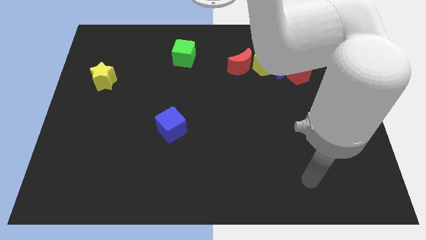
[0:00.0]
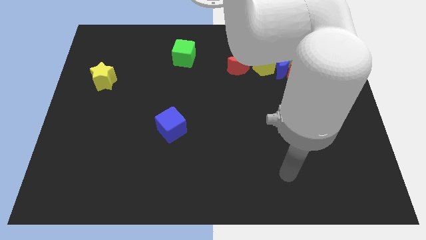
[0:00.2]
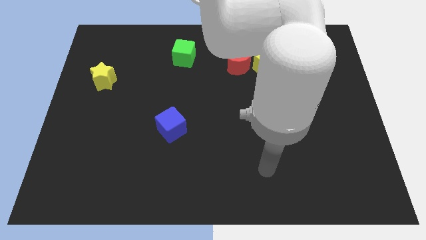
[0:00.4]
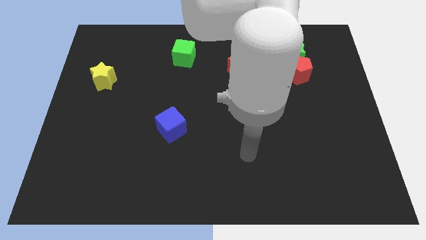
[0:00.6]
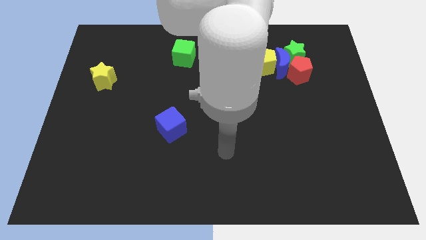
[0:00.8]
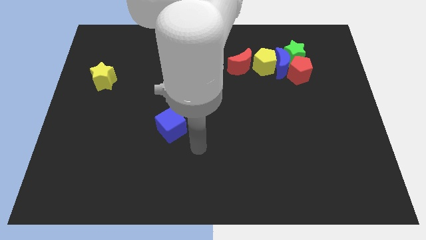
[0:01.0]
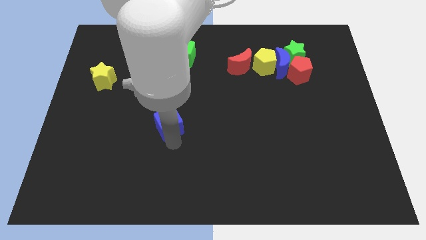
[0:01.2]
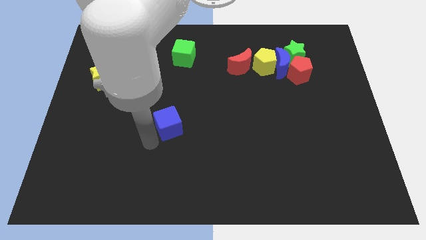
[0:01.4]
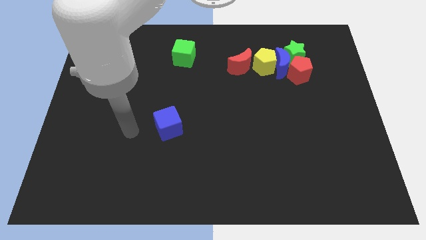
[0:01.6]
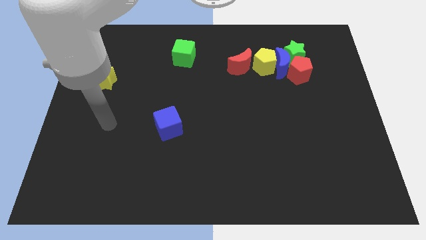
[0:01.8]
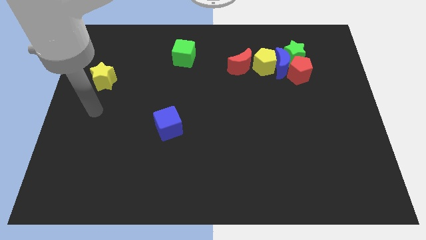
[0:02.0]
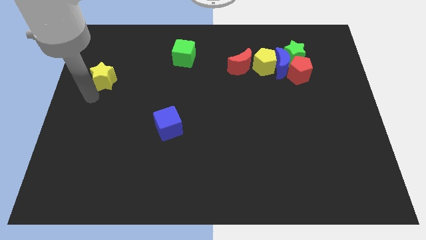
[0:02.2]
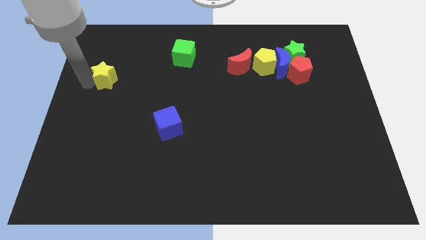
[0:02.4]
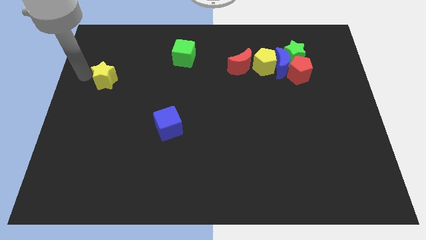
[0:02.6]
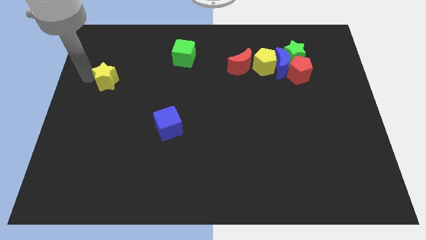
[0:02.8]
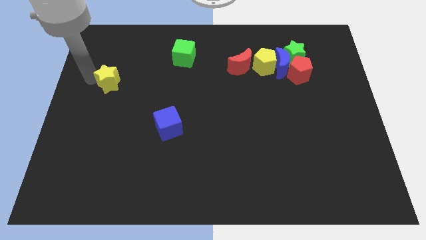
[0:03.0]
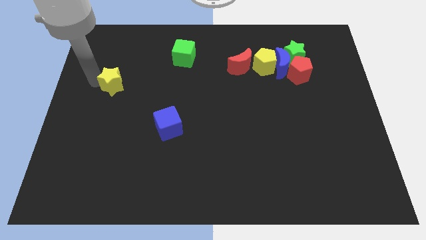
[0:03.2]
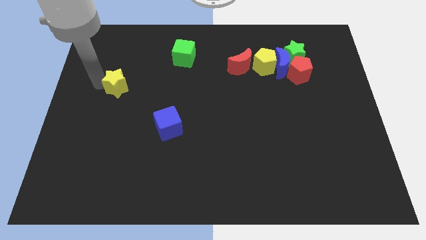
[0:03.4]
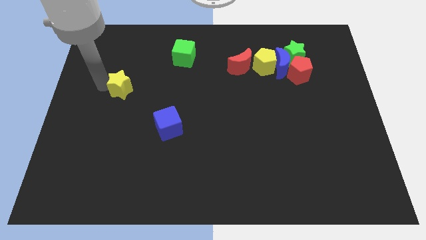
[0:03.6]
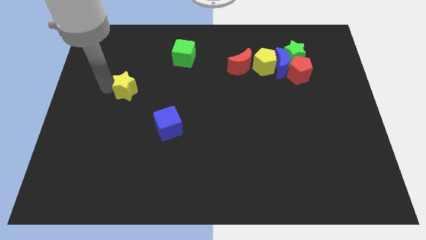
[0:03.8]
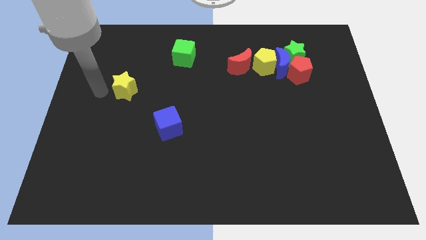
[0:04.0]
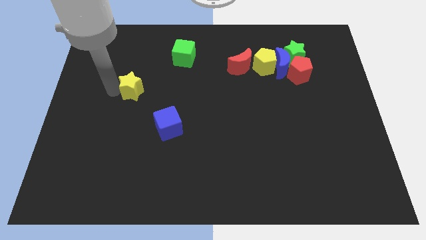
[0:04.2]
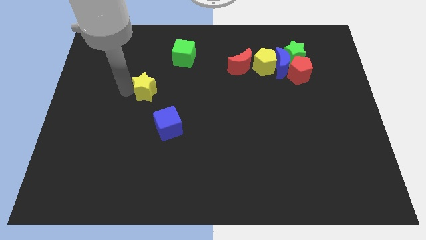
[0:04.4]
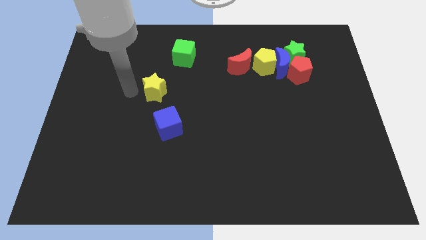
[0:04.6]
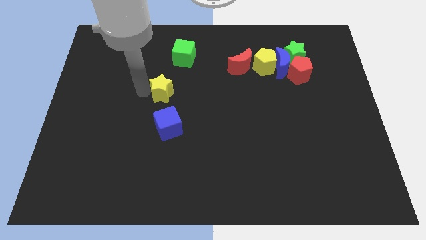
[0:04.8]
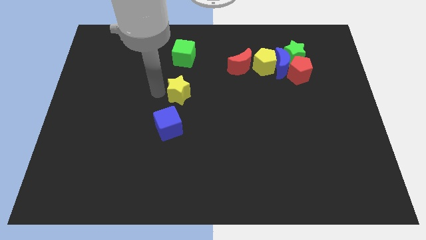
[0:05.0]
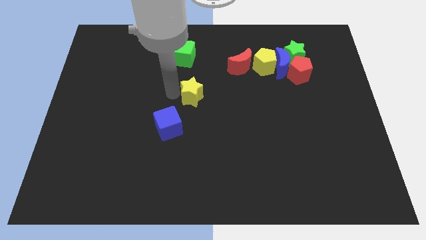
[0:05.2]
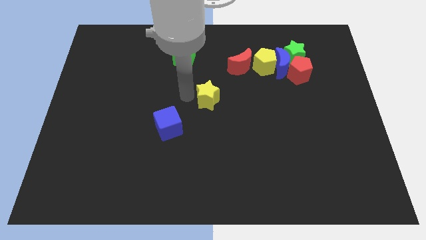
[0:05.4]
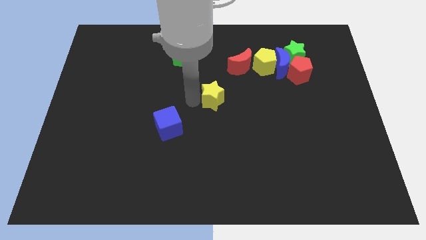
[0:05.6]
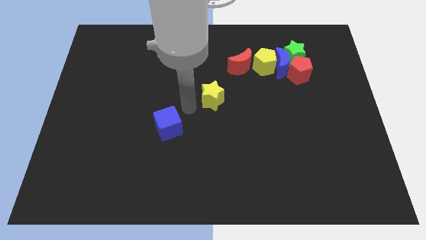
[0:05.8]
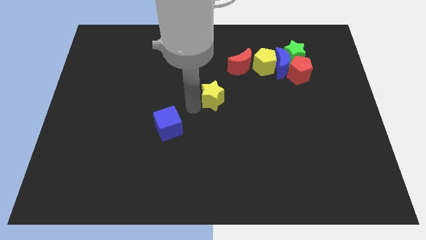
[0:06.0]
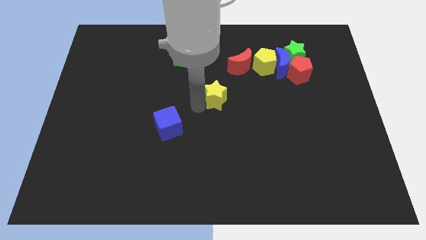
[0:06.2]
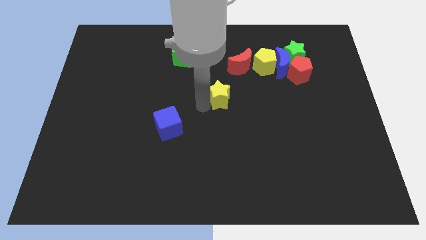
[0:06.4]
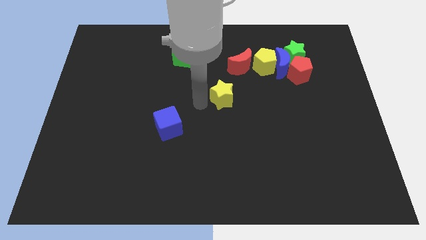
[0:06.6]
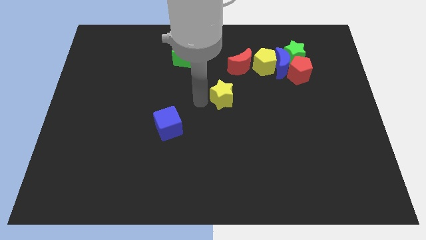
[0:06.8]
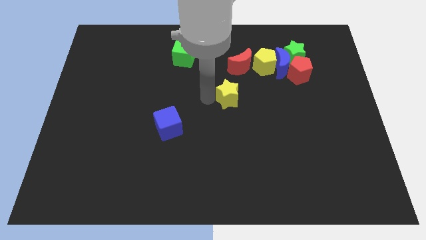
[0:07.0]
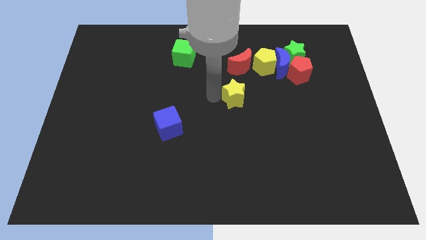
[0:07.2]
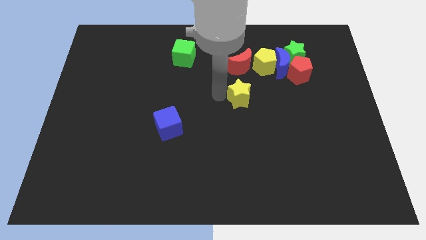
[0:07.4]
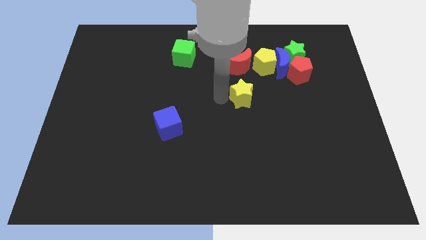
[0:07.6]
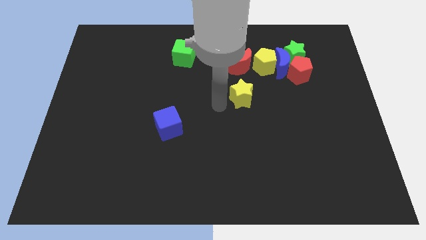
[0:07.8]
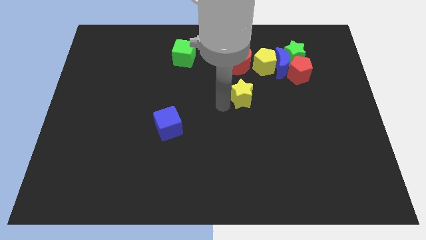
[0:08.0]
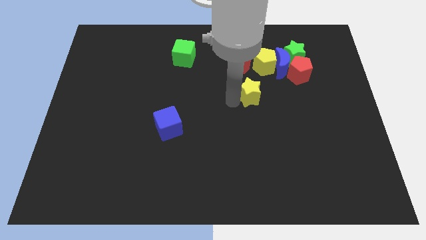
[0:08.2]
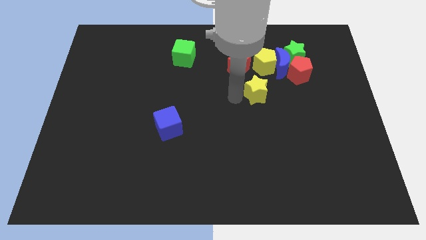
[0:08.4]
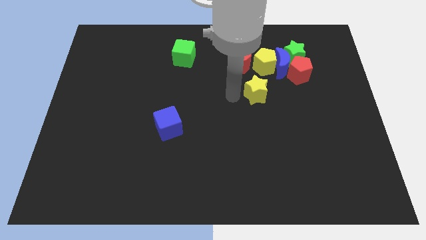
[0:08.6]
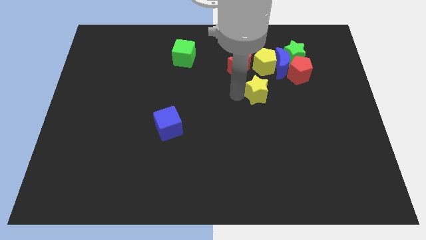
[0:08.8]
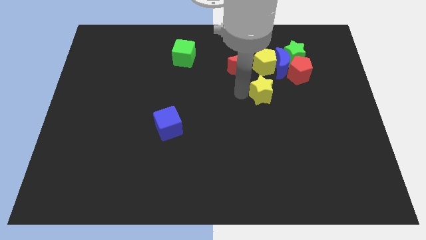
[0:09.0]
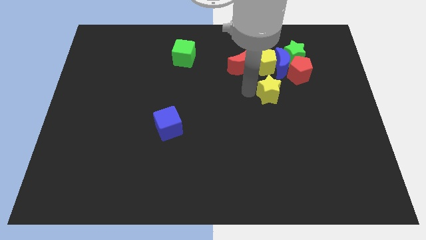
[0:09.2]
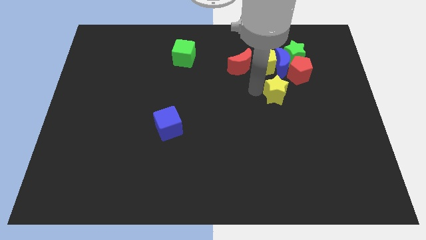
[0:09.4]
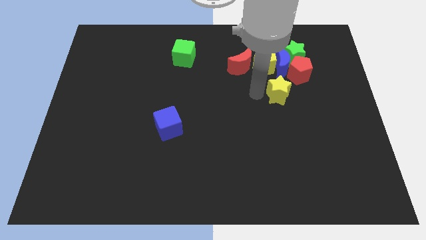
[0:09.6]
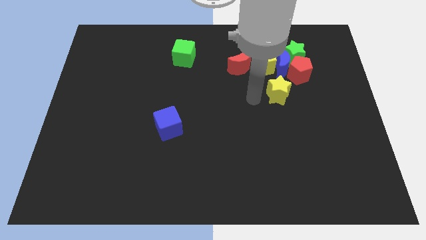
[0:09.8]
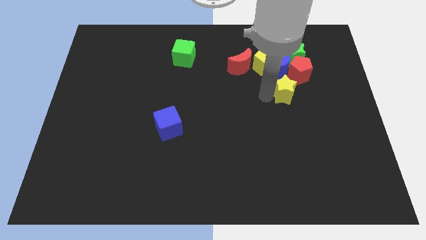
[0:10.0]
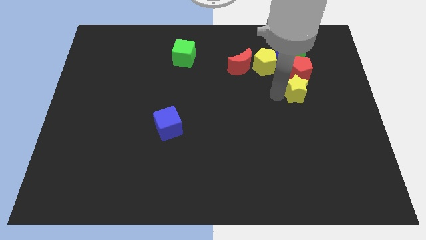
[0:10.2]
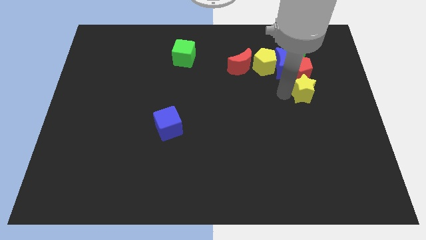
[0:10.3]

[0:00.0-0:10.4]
move the yellow star diagonally down and to the right of the red pentagon

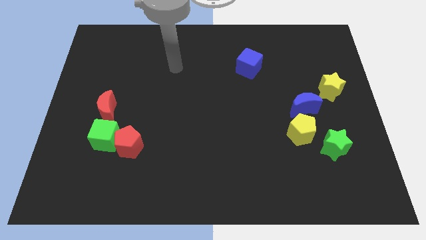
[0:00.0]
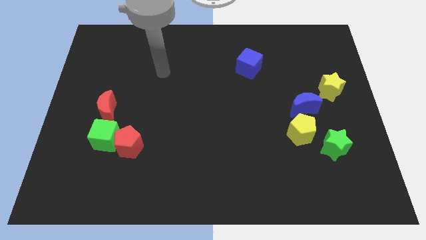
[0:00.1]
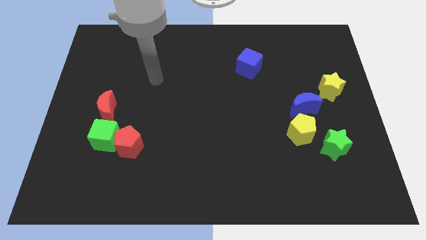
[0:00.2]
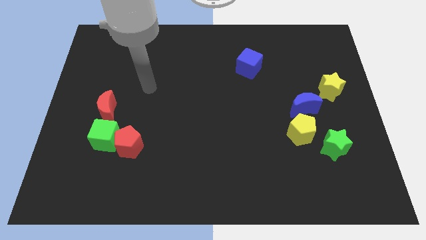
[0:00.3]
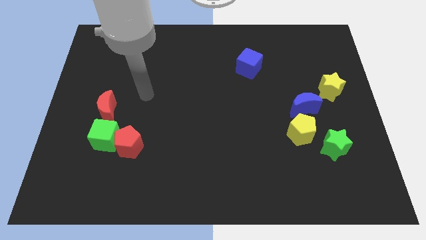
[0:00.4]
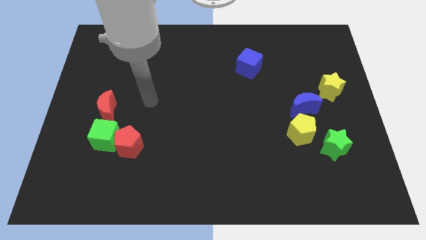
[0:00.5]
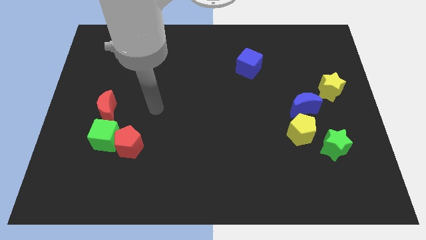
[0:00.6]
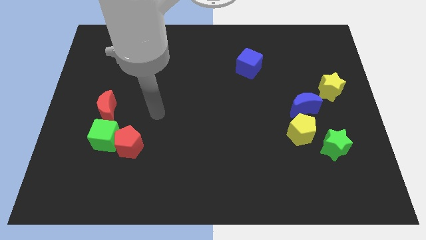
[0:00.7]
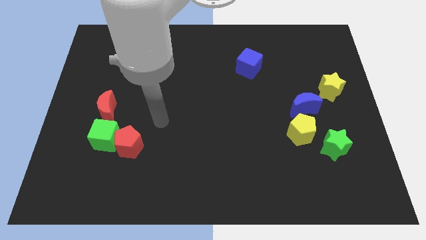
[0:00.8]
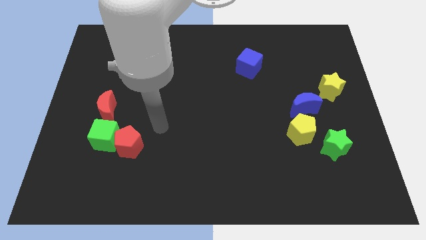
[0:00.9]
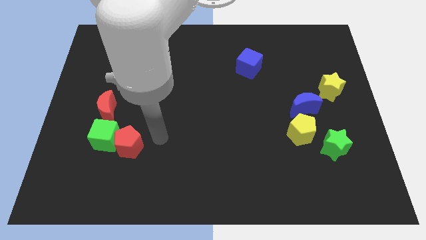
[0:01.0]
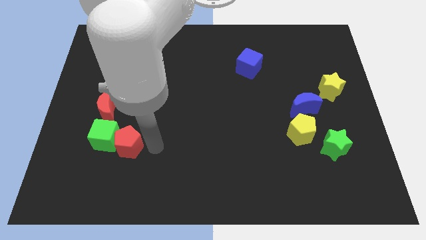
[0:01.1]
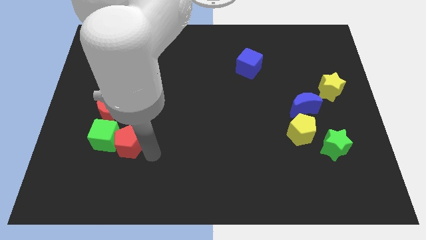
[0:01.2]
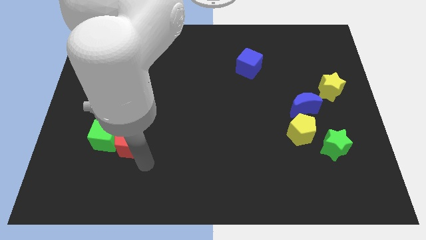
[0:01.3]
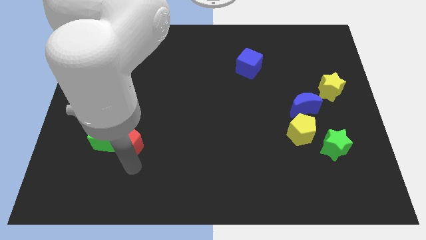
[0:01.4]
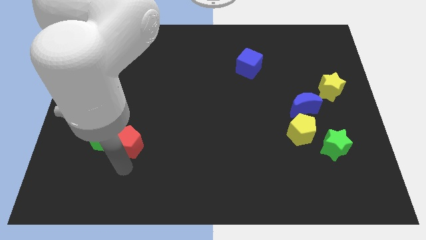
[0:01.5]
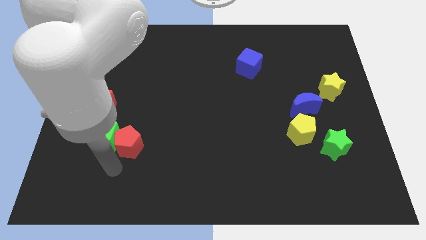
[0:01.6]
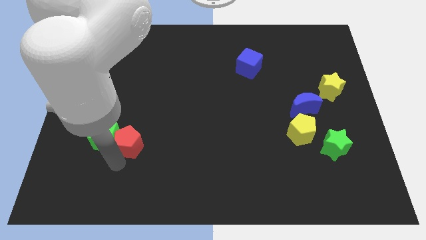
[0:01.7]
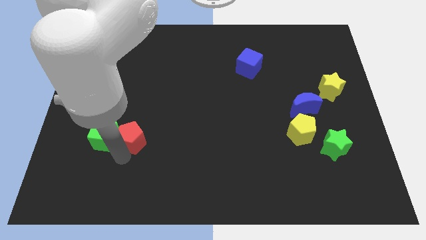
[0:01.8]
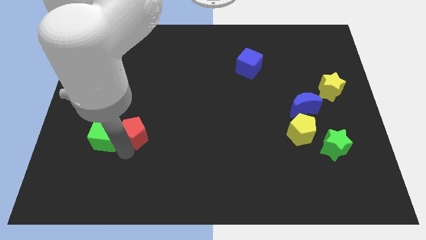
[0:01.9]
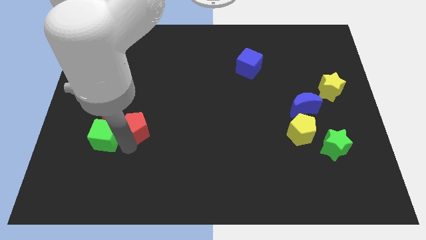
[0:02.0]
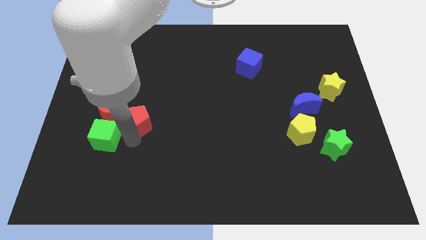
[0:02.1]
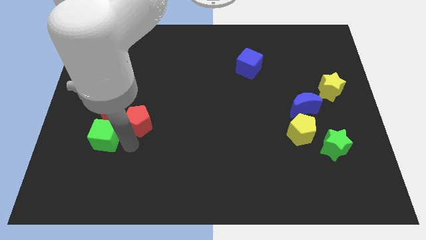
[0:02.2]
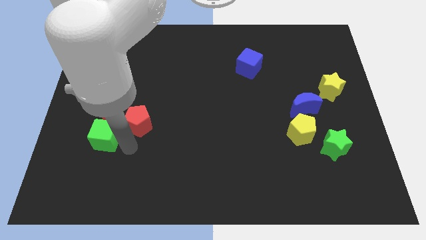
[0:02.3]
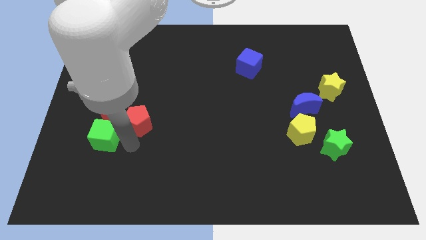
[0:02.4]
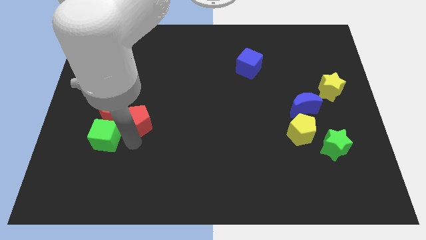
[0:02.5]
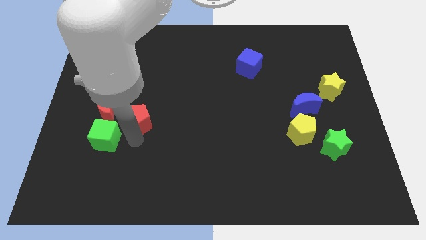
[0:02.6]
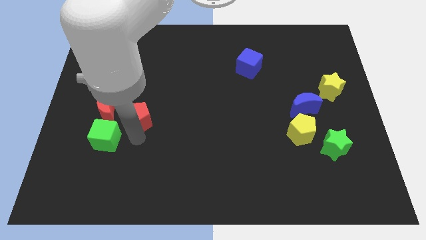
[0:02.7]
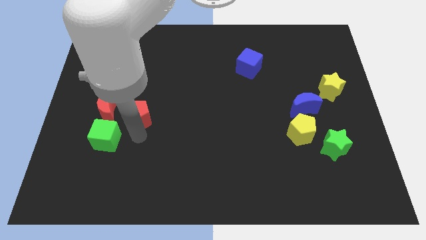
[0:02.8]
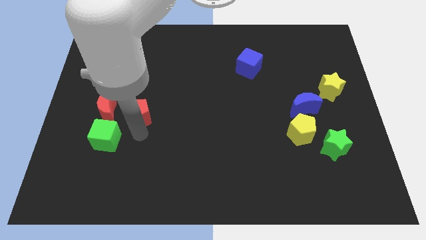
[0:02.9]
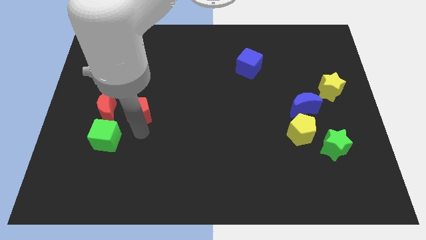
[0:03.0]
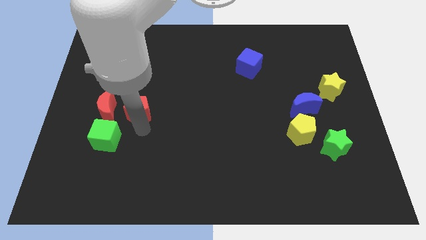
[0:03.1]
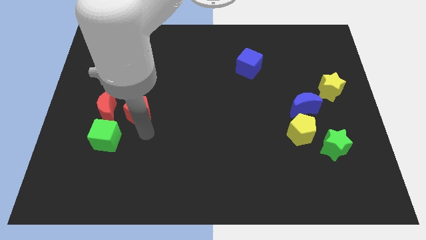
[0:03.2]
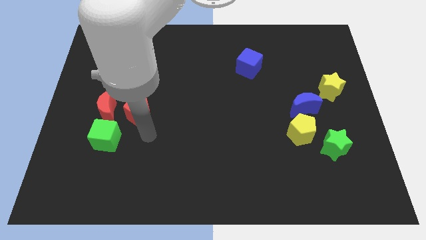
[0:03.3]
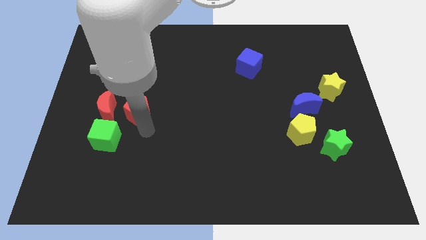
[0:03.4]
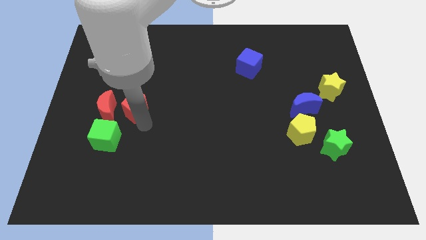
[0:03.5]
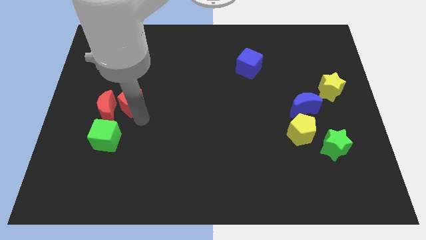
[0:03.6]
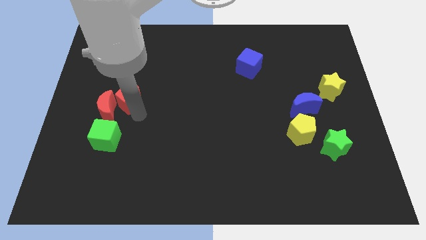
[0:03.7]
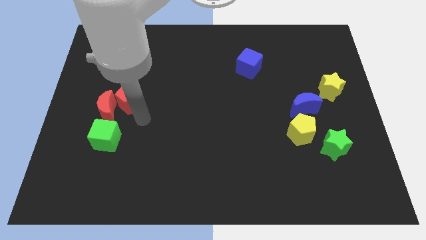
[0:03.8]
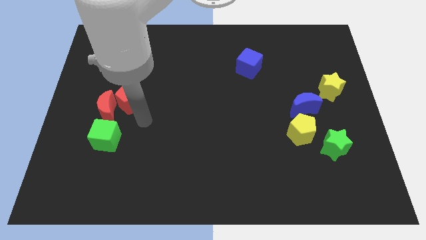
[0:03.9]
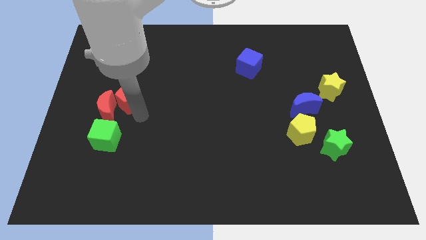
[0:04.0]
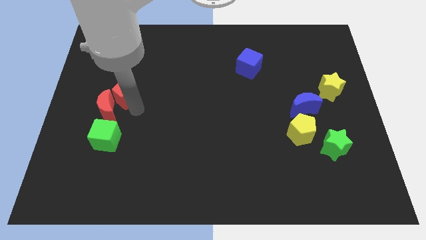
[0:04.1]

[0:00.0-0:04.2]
move the red pentagon to the top side of the red moon
